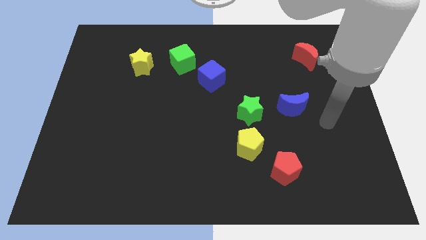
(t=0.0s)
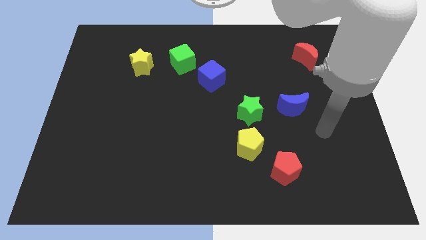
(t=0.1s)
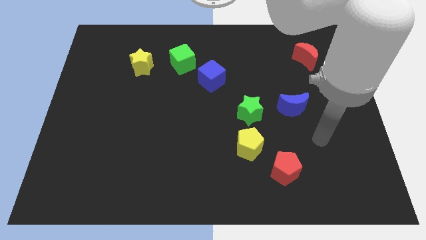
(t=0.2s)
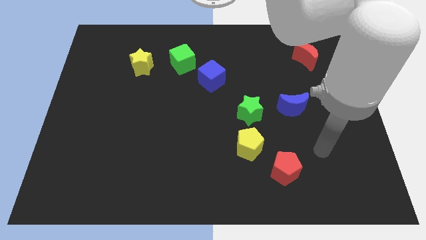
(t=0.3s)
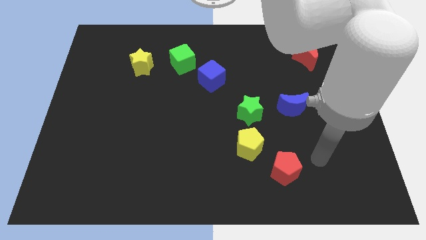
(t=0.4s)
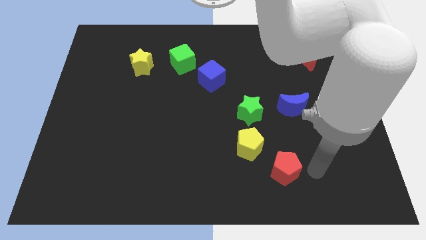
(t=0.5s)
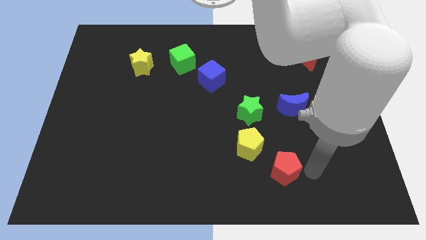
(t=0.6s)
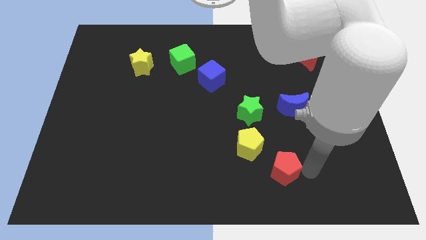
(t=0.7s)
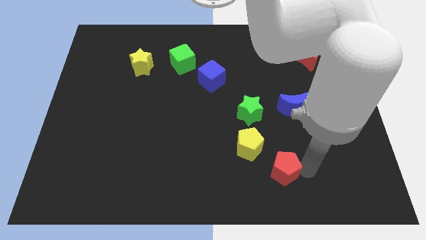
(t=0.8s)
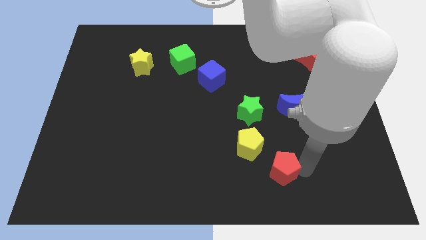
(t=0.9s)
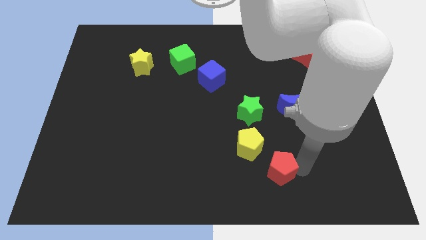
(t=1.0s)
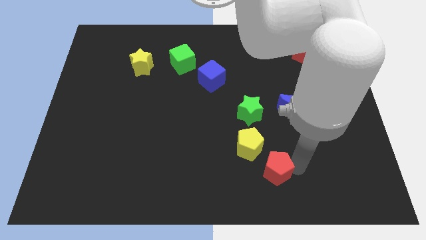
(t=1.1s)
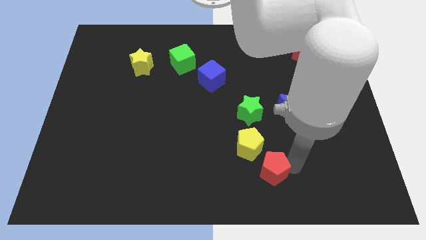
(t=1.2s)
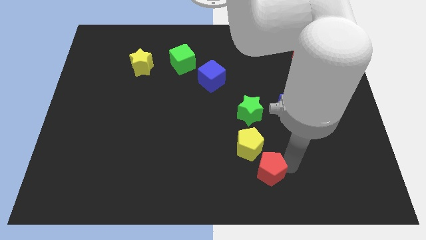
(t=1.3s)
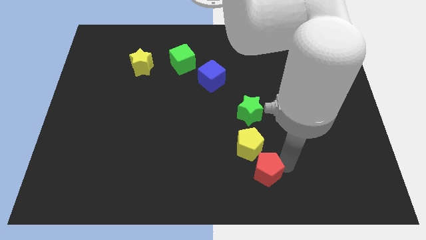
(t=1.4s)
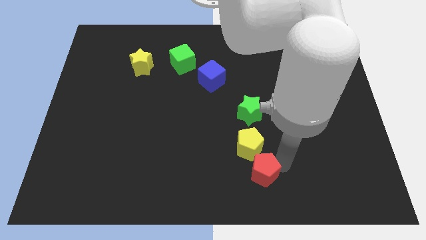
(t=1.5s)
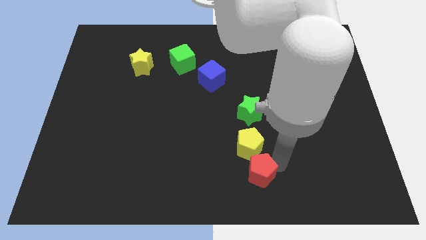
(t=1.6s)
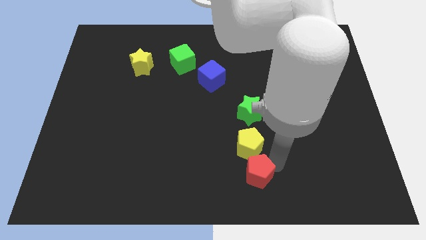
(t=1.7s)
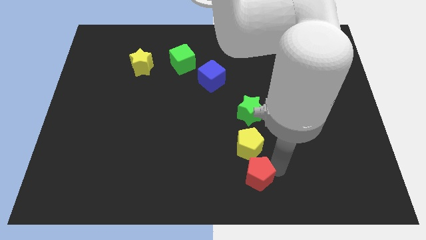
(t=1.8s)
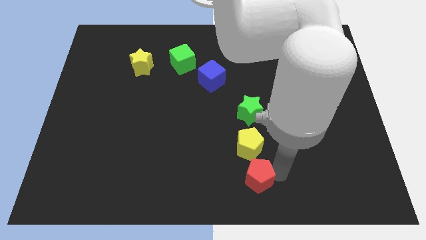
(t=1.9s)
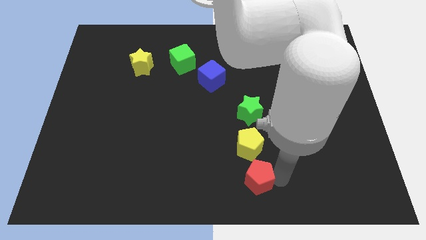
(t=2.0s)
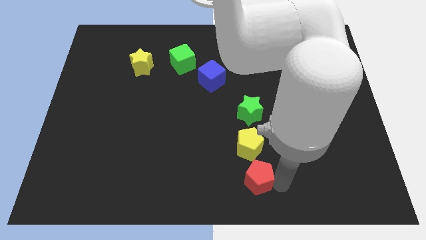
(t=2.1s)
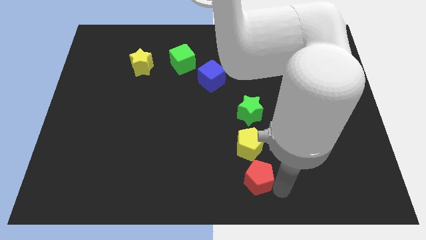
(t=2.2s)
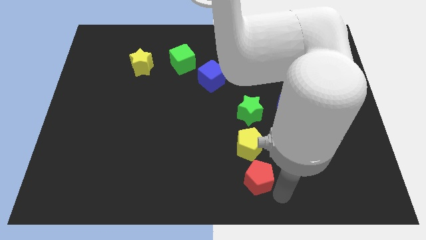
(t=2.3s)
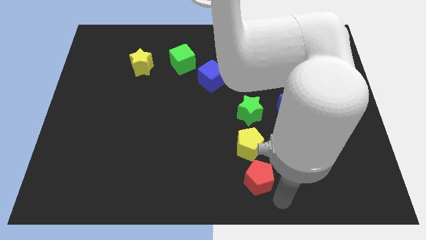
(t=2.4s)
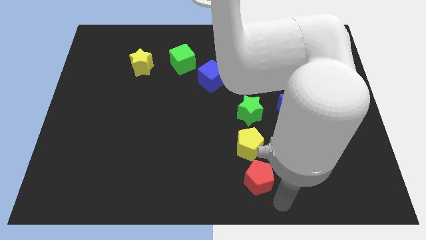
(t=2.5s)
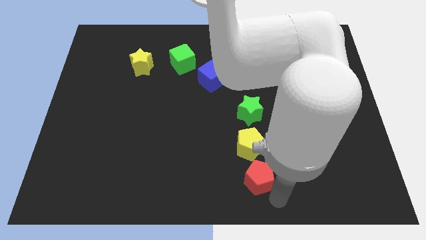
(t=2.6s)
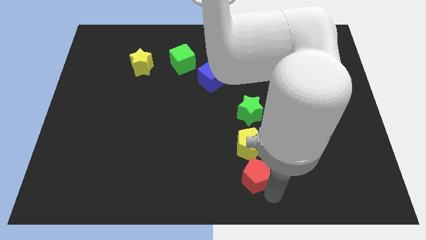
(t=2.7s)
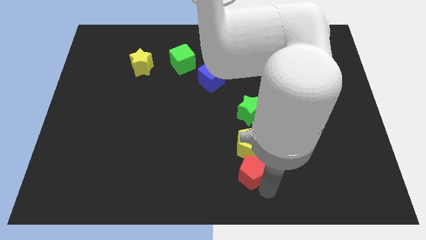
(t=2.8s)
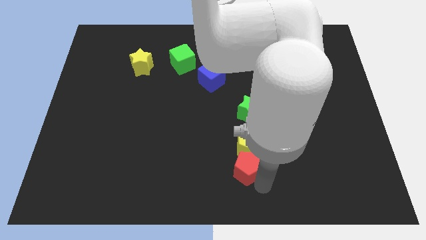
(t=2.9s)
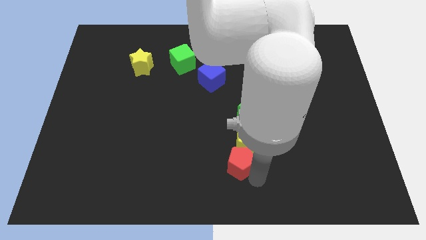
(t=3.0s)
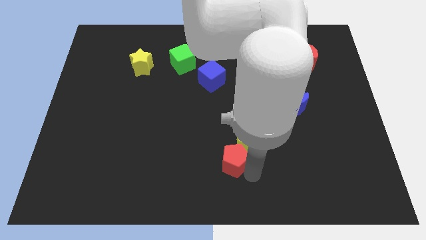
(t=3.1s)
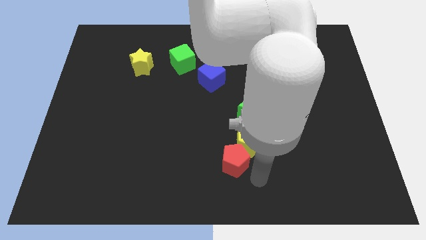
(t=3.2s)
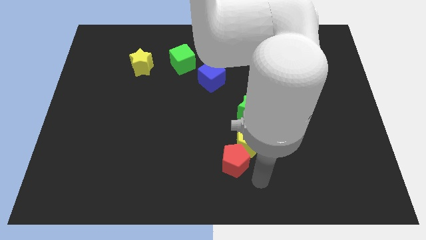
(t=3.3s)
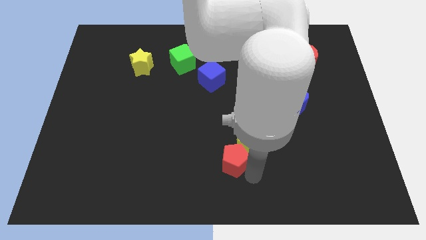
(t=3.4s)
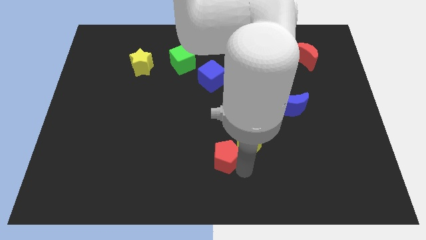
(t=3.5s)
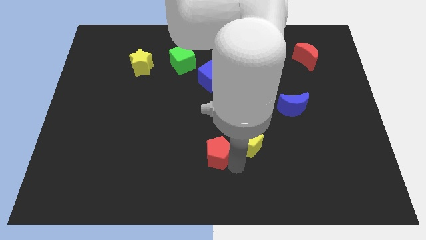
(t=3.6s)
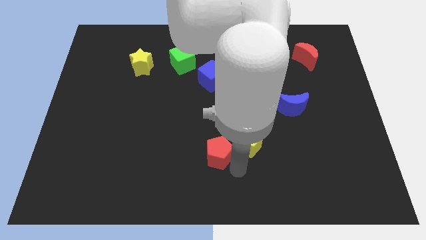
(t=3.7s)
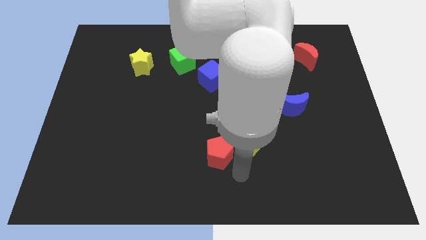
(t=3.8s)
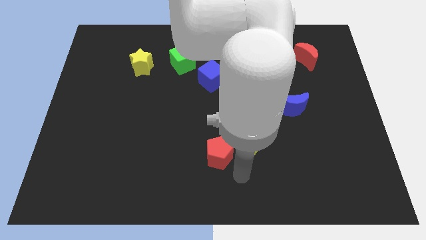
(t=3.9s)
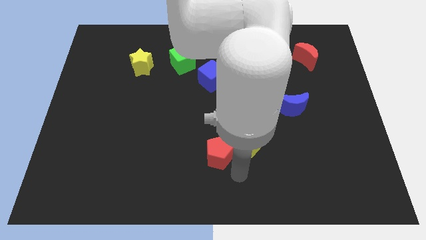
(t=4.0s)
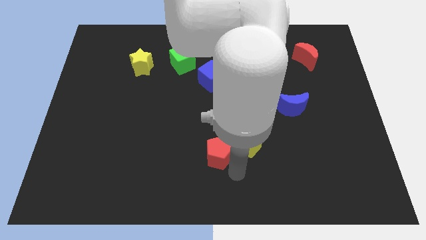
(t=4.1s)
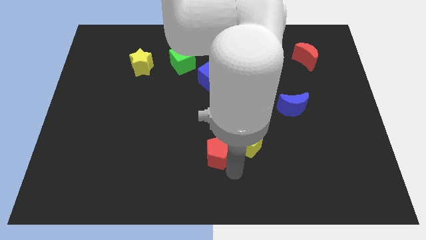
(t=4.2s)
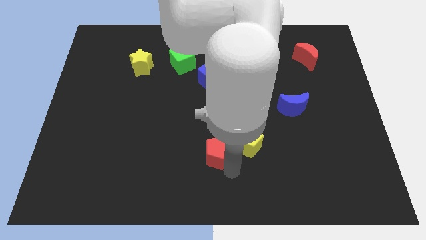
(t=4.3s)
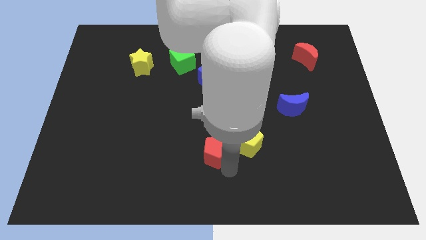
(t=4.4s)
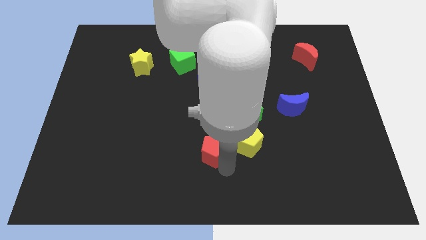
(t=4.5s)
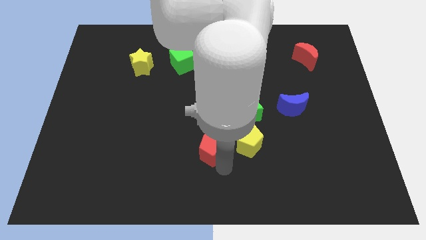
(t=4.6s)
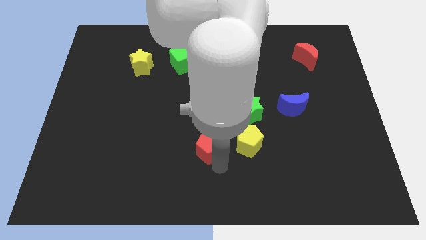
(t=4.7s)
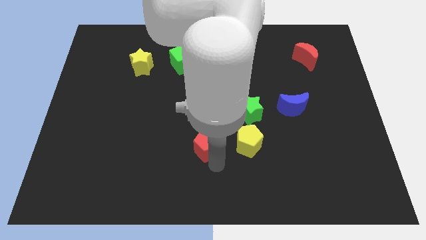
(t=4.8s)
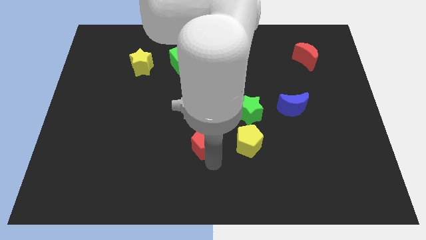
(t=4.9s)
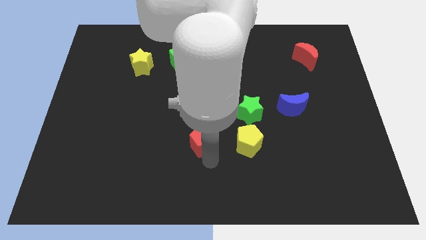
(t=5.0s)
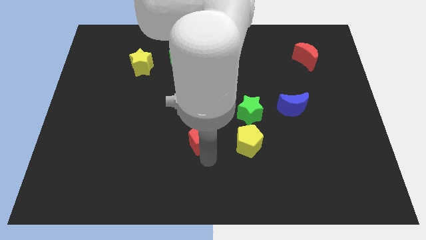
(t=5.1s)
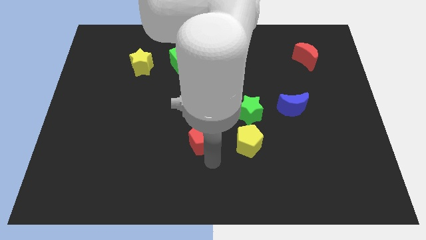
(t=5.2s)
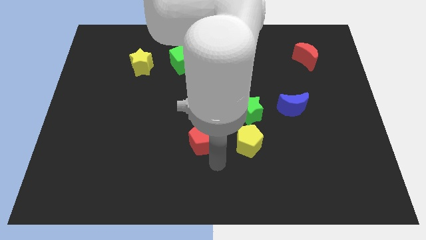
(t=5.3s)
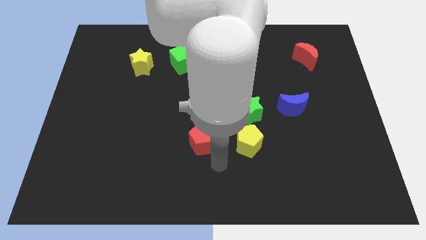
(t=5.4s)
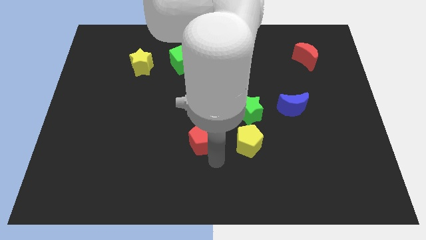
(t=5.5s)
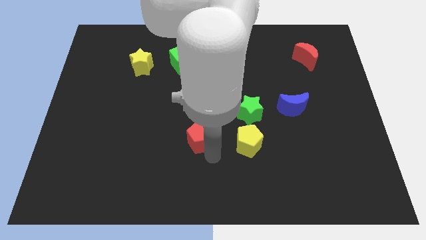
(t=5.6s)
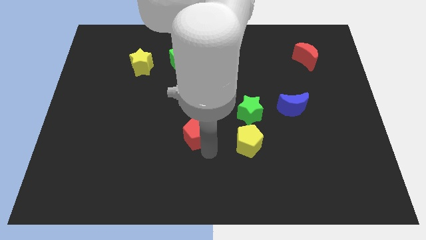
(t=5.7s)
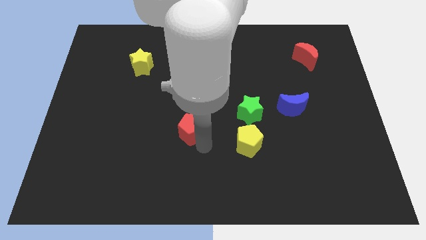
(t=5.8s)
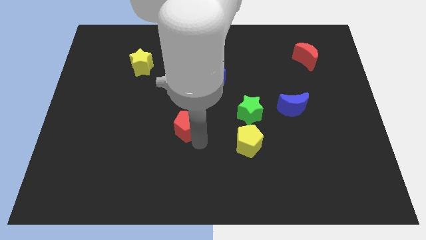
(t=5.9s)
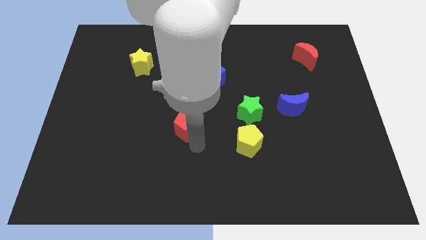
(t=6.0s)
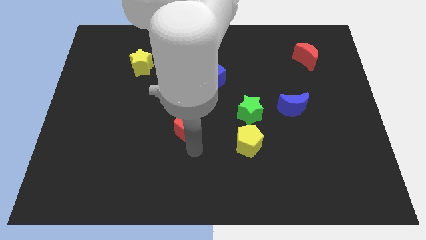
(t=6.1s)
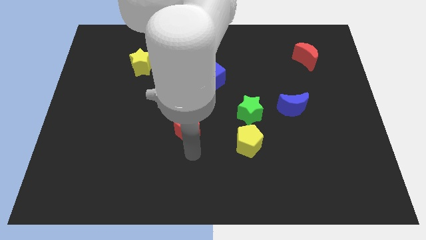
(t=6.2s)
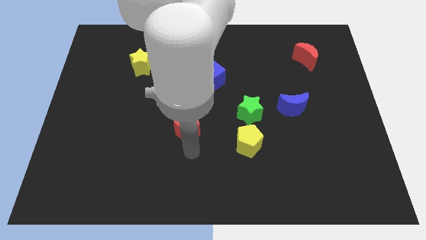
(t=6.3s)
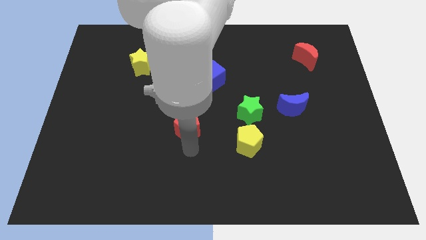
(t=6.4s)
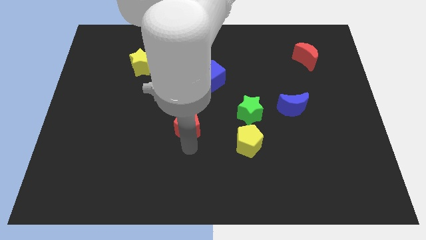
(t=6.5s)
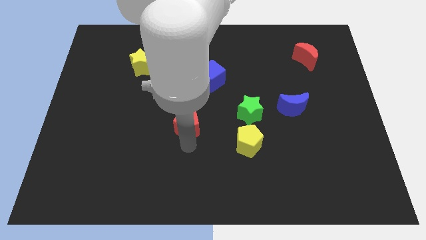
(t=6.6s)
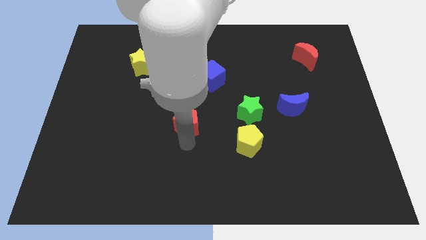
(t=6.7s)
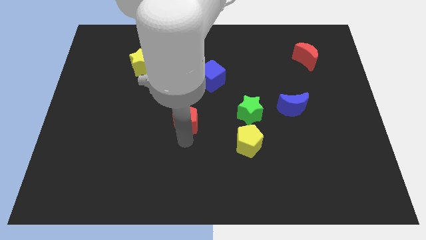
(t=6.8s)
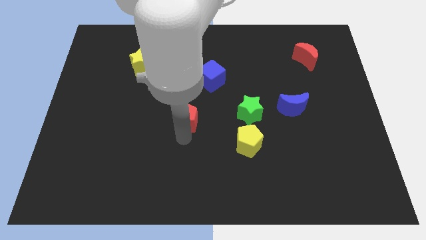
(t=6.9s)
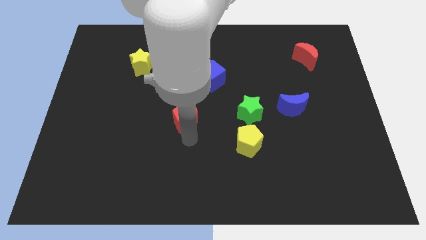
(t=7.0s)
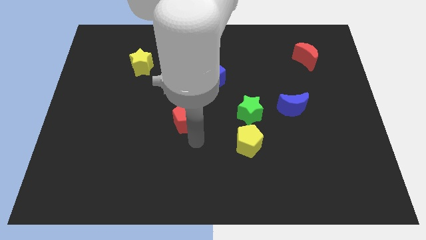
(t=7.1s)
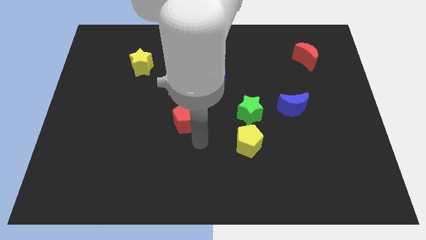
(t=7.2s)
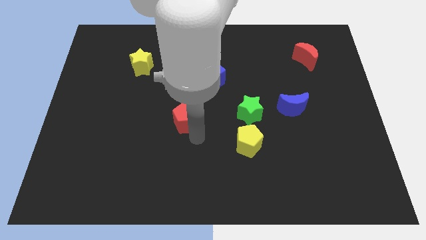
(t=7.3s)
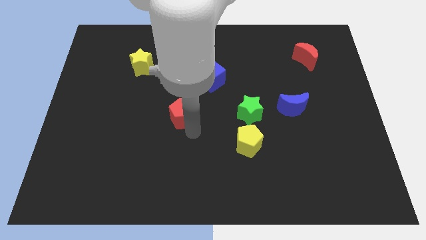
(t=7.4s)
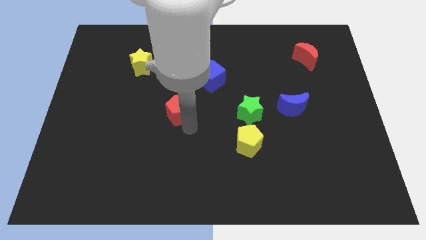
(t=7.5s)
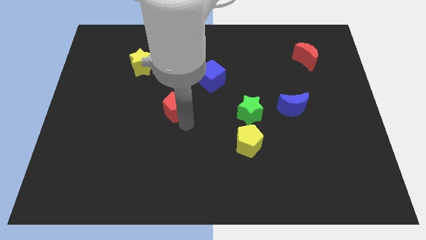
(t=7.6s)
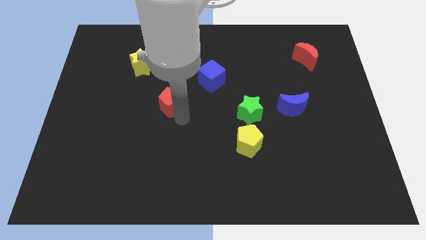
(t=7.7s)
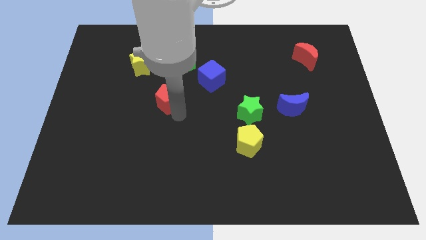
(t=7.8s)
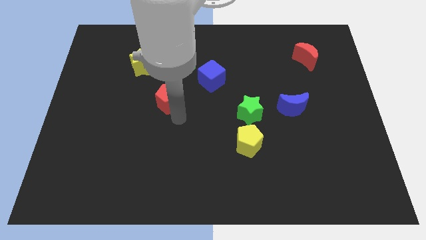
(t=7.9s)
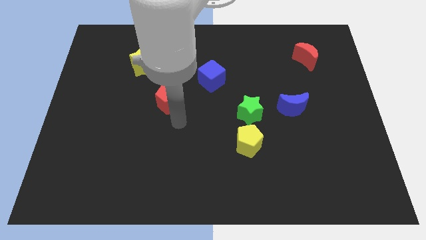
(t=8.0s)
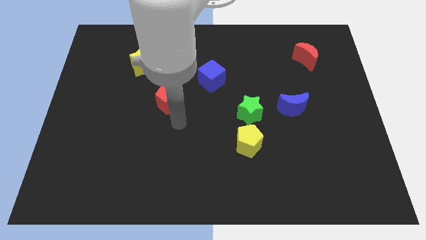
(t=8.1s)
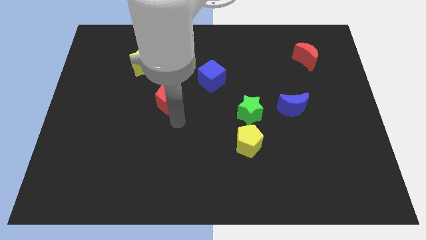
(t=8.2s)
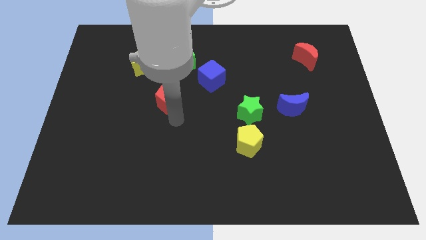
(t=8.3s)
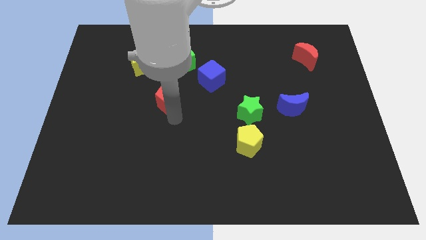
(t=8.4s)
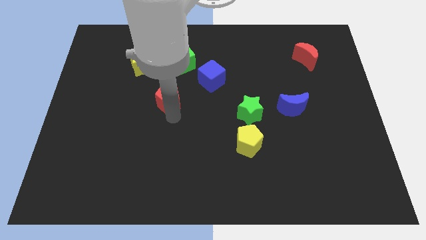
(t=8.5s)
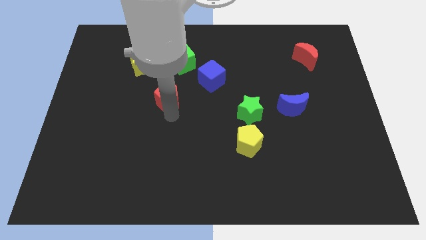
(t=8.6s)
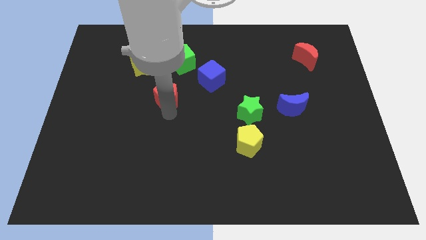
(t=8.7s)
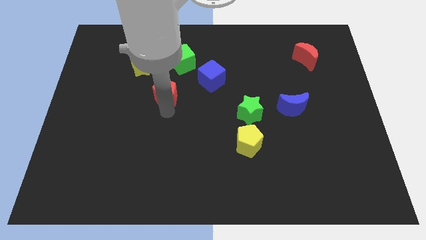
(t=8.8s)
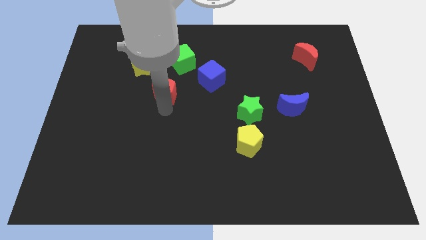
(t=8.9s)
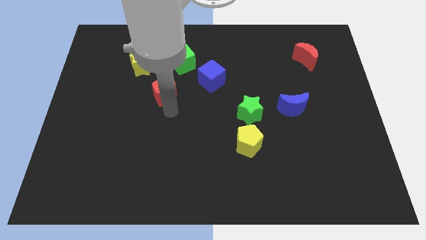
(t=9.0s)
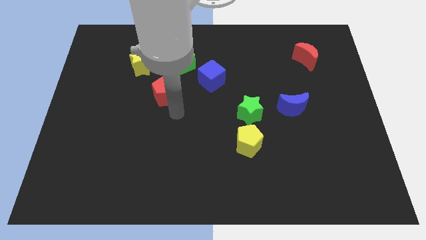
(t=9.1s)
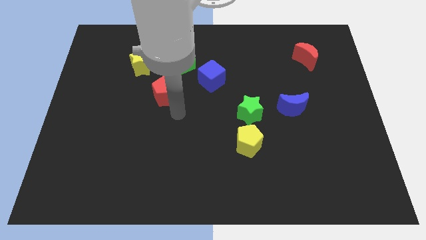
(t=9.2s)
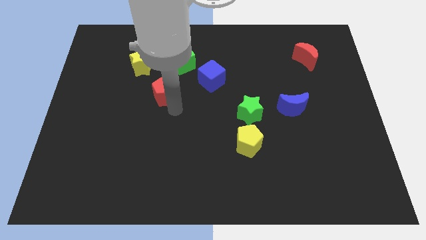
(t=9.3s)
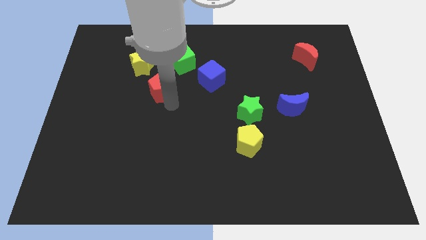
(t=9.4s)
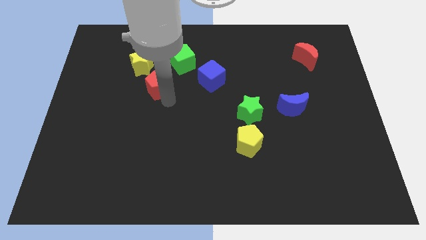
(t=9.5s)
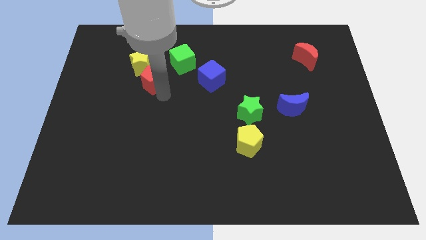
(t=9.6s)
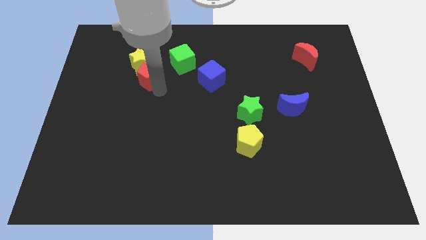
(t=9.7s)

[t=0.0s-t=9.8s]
slide the red pentagon close to the yellow star
